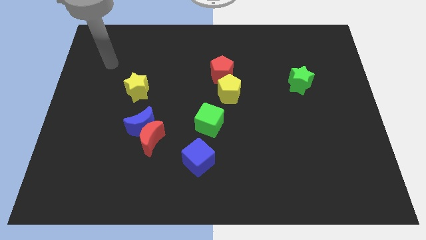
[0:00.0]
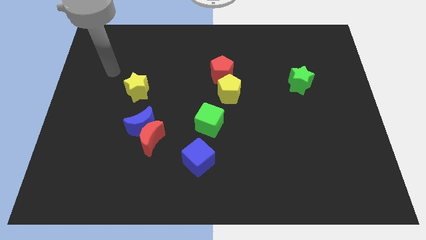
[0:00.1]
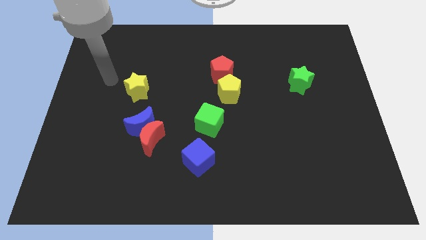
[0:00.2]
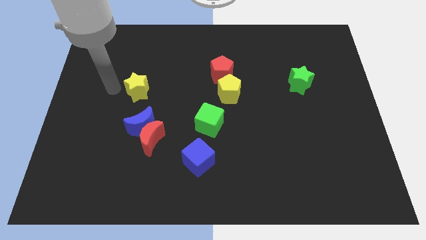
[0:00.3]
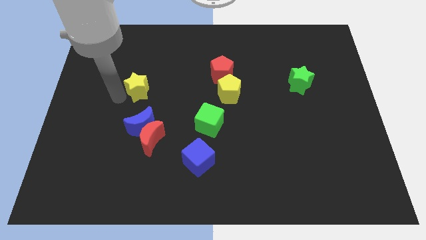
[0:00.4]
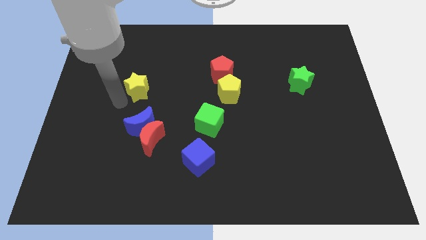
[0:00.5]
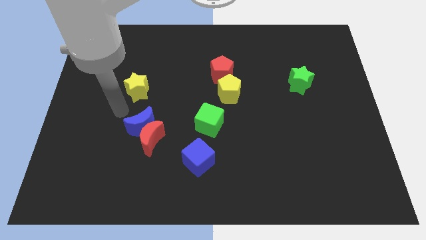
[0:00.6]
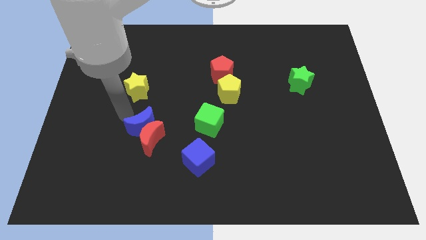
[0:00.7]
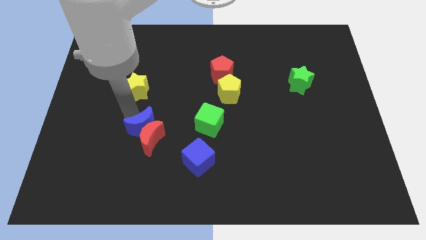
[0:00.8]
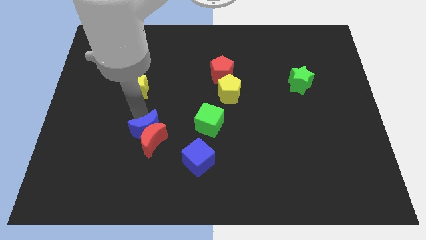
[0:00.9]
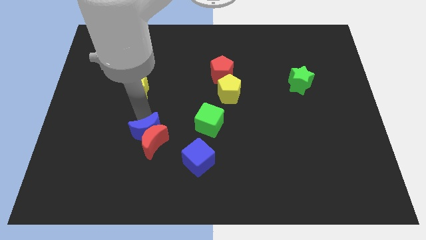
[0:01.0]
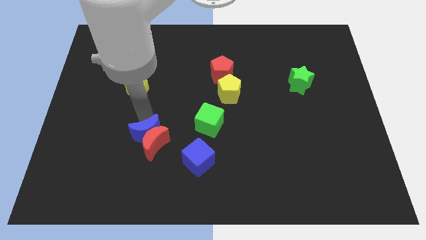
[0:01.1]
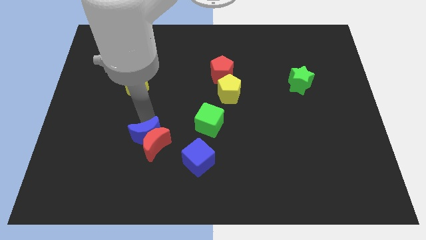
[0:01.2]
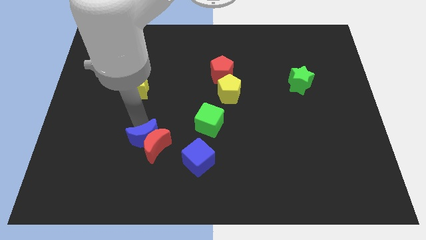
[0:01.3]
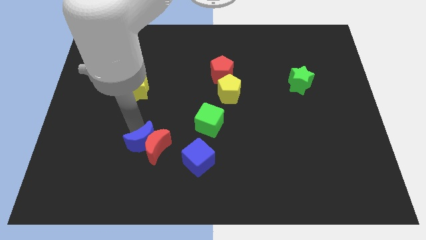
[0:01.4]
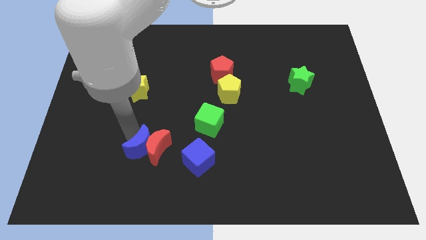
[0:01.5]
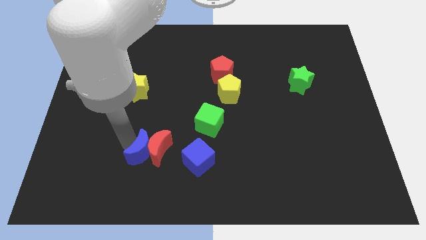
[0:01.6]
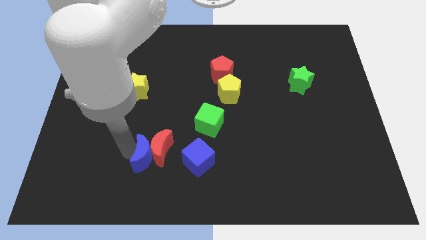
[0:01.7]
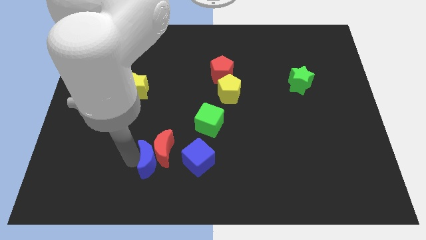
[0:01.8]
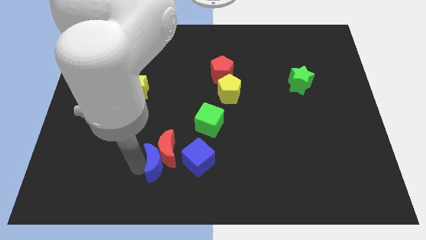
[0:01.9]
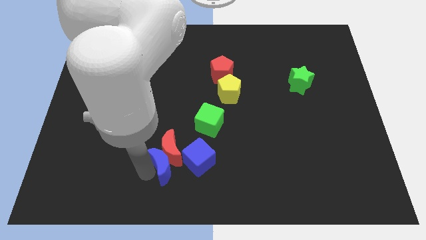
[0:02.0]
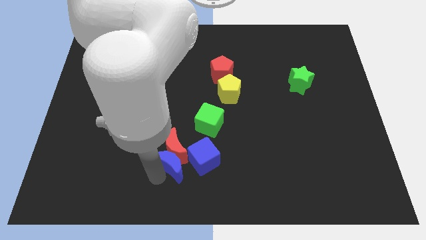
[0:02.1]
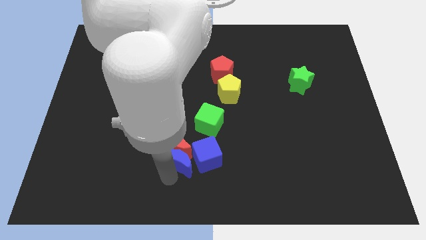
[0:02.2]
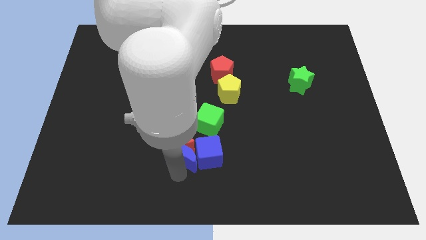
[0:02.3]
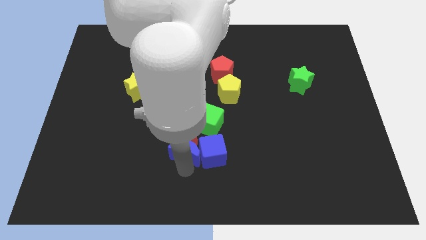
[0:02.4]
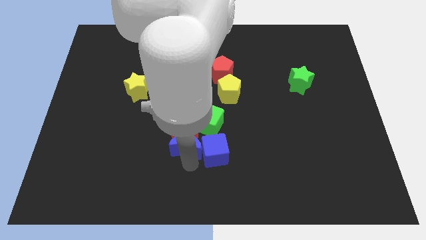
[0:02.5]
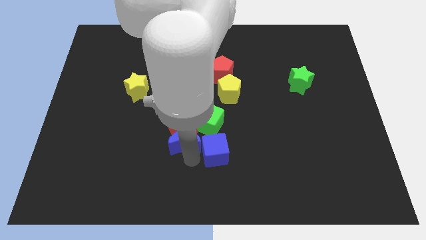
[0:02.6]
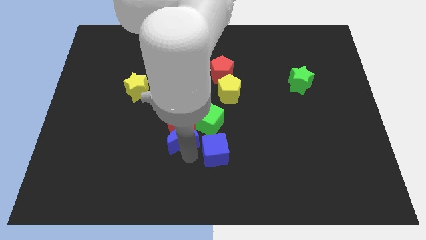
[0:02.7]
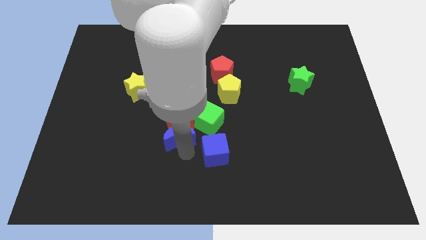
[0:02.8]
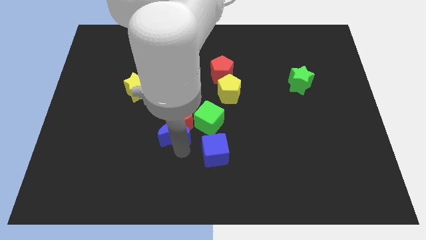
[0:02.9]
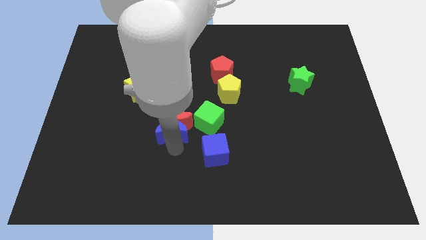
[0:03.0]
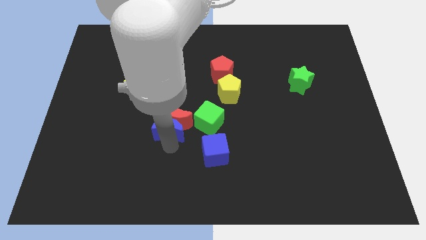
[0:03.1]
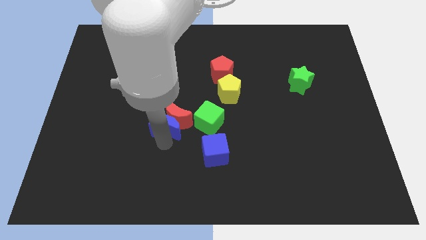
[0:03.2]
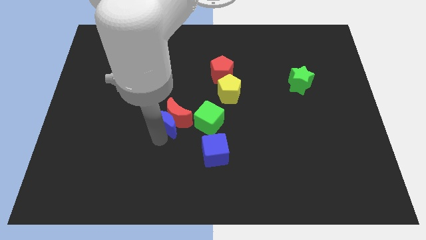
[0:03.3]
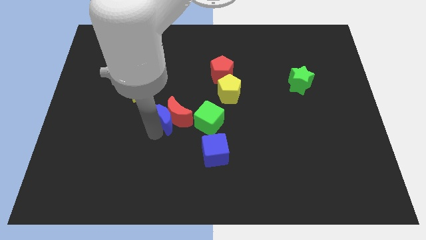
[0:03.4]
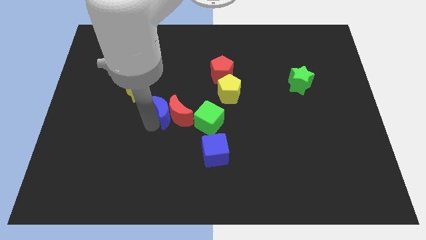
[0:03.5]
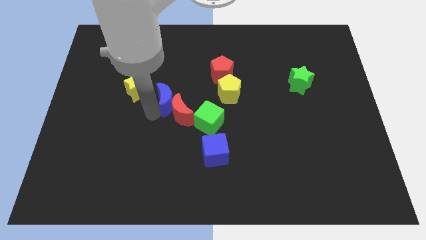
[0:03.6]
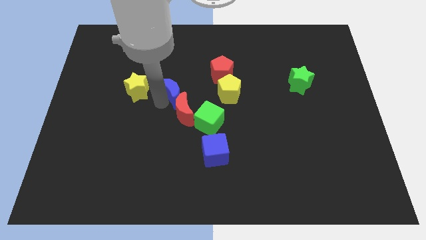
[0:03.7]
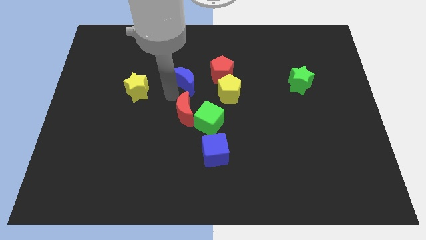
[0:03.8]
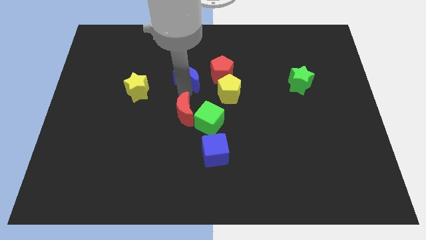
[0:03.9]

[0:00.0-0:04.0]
separate the red moon from the blue moon

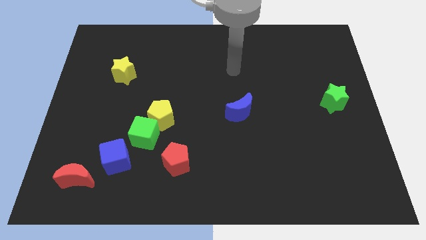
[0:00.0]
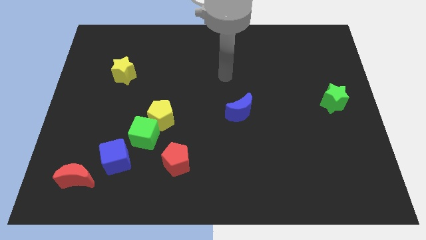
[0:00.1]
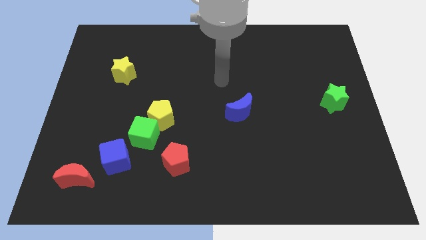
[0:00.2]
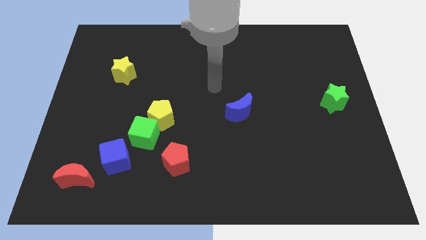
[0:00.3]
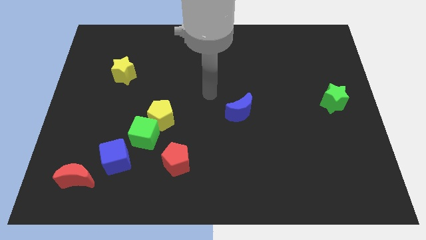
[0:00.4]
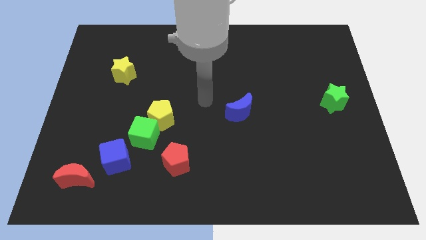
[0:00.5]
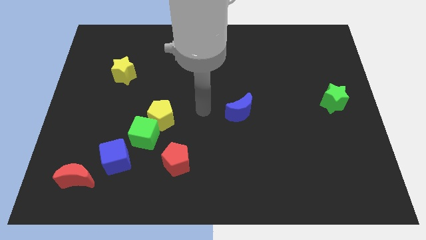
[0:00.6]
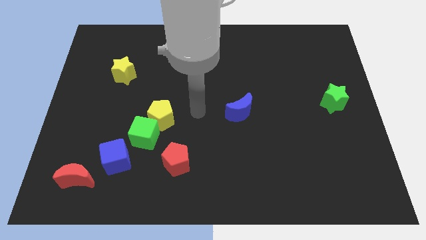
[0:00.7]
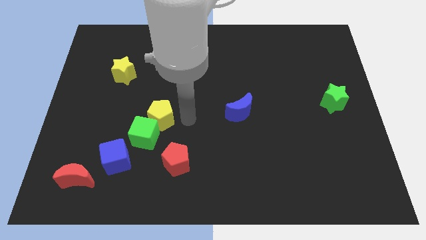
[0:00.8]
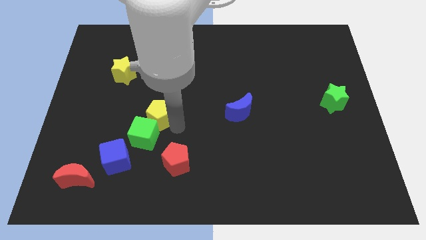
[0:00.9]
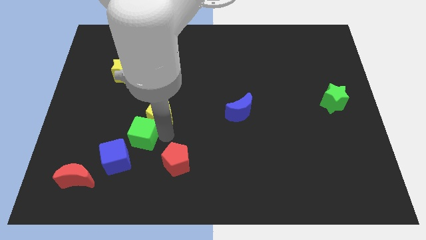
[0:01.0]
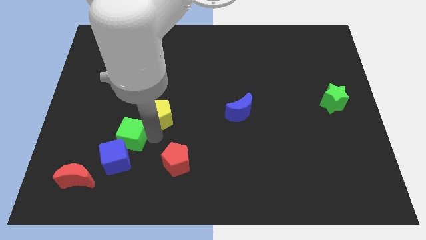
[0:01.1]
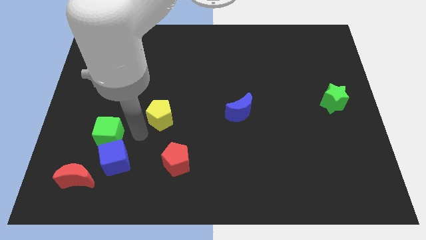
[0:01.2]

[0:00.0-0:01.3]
pull the yellow pentagon apart from the green cube

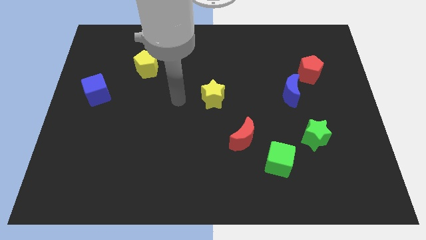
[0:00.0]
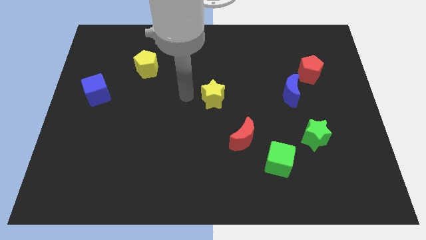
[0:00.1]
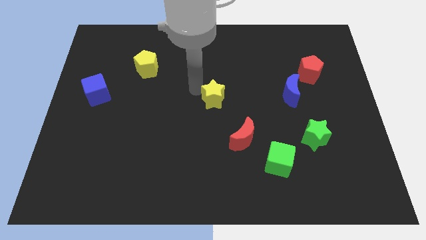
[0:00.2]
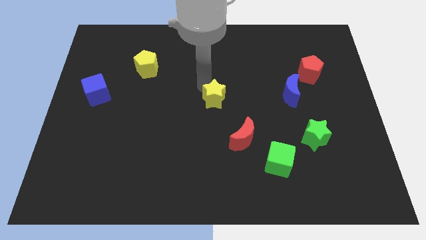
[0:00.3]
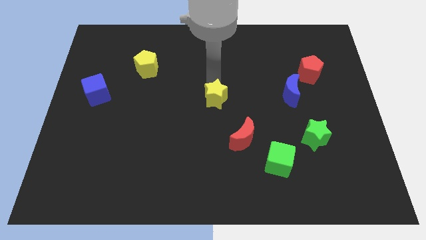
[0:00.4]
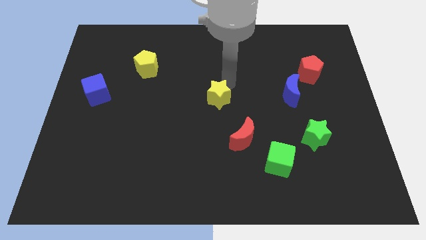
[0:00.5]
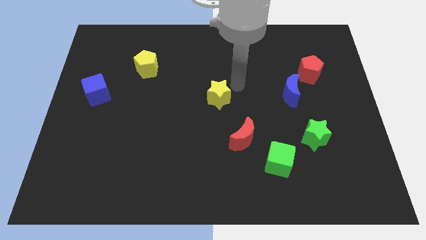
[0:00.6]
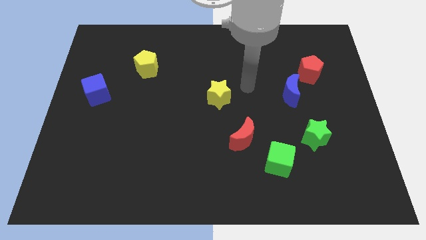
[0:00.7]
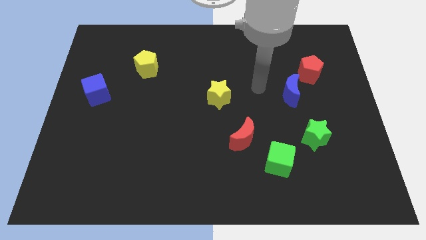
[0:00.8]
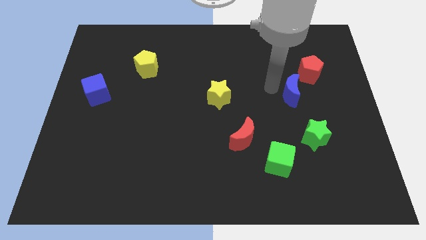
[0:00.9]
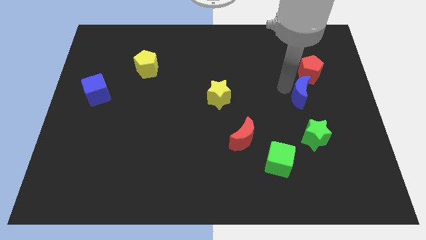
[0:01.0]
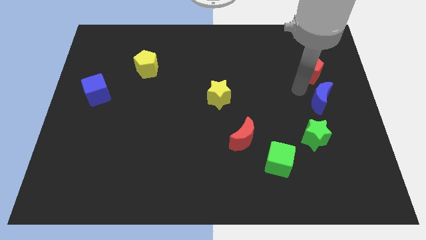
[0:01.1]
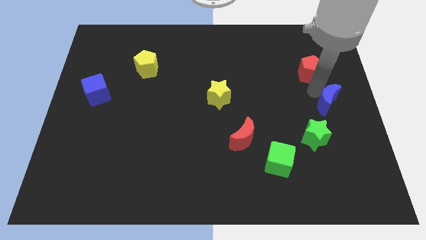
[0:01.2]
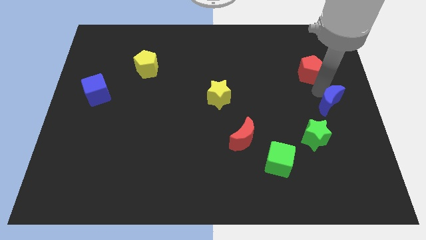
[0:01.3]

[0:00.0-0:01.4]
move the red pentagon away from the blue moon

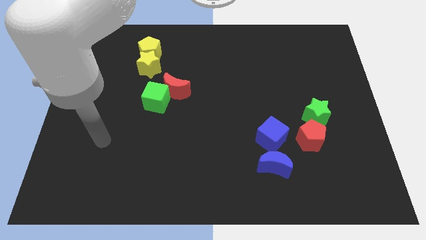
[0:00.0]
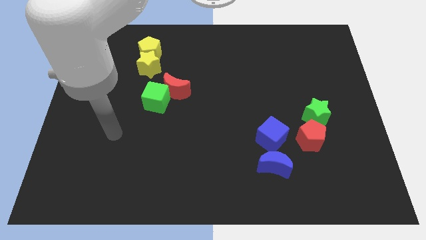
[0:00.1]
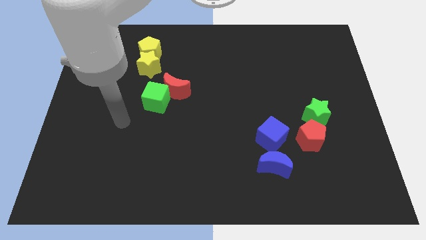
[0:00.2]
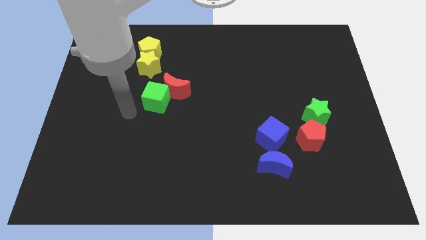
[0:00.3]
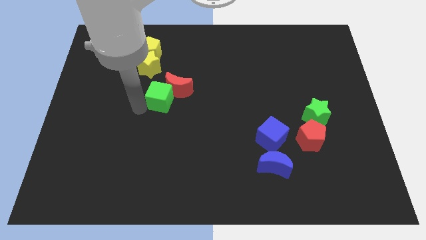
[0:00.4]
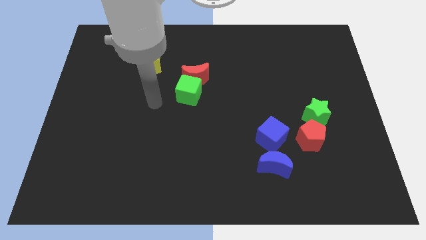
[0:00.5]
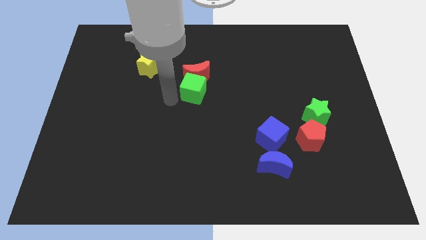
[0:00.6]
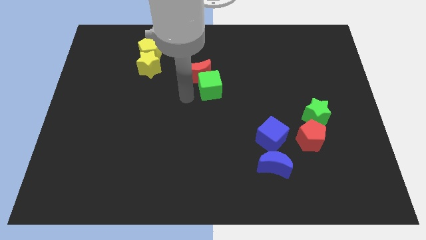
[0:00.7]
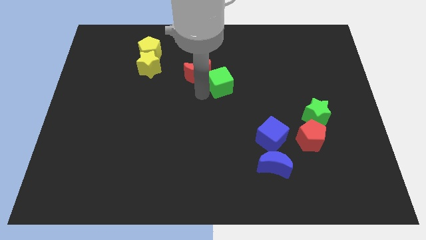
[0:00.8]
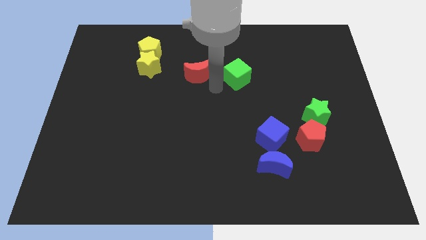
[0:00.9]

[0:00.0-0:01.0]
pull the red moon apart from the green cube

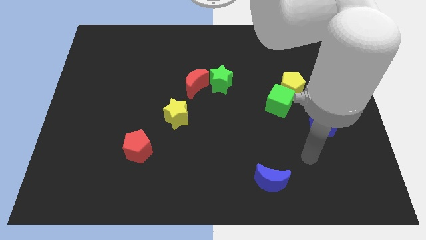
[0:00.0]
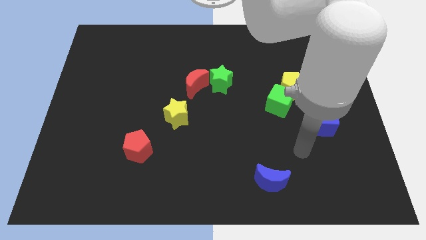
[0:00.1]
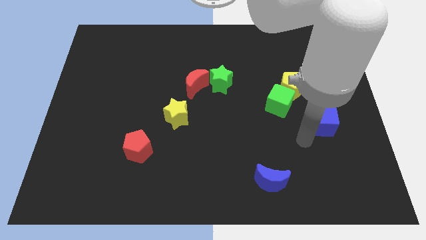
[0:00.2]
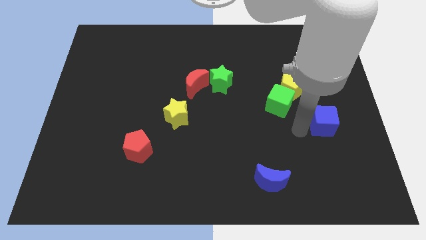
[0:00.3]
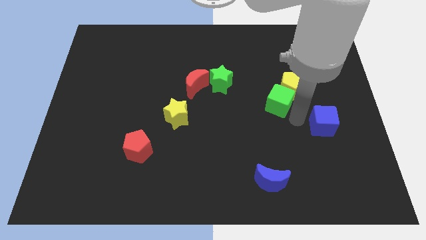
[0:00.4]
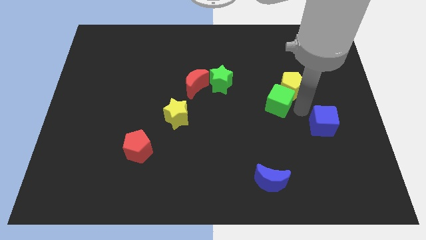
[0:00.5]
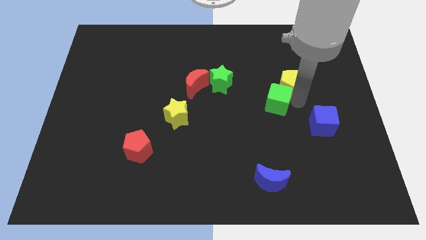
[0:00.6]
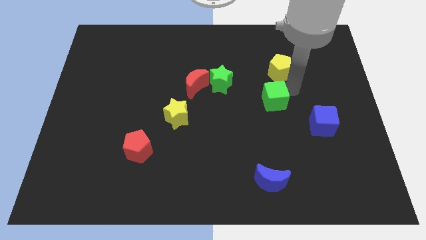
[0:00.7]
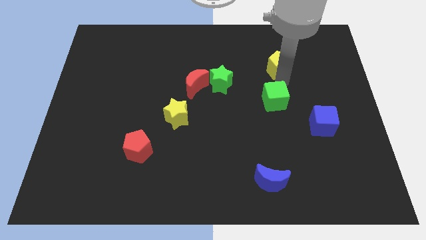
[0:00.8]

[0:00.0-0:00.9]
move the green cube away from the yellow pentagon

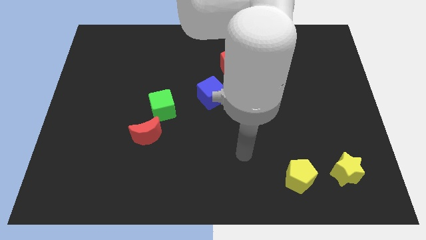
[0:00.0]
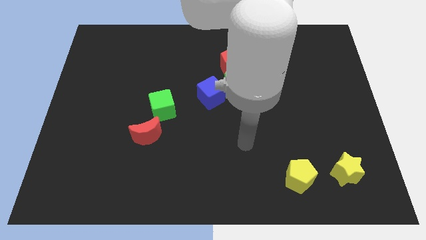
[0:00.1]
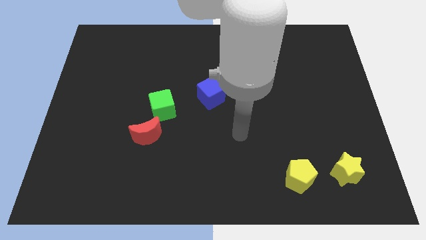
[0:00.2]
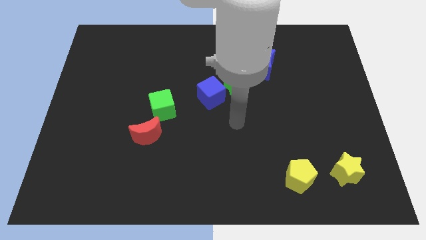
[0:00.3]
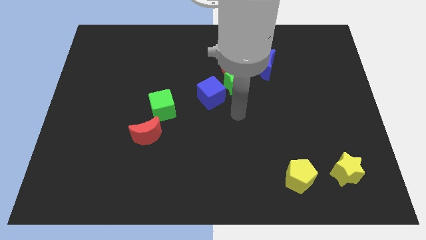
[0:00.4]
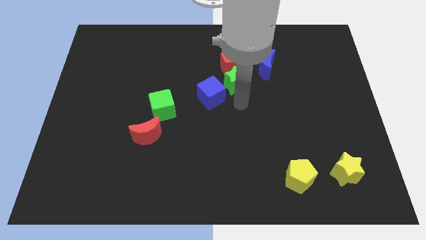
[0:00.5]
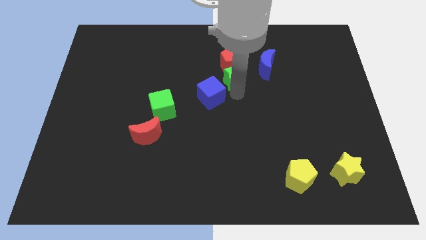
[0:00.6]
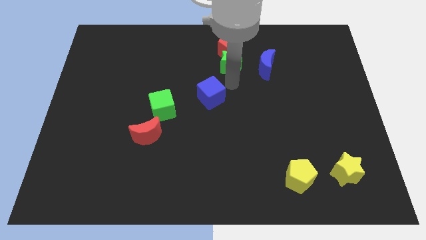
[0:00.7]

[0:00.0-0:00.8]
separate the blue cube from the green star

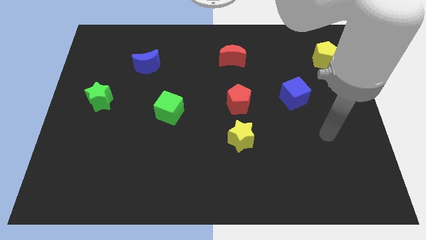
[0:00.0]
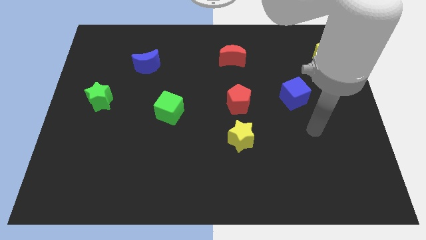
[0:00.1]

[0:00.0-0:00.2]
pull the red pentagon apart from the yellow star
